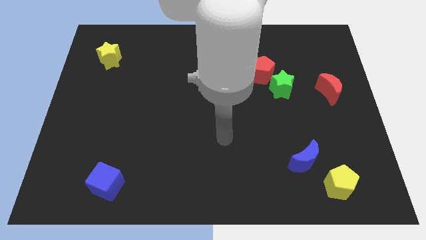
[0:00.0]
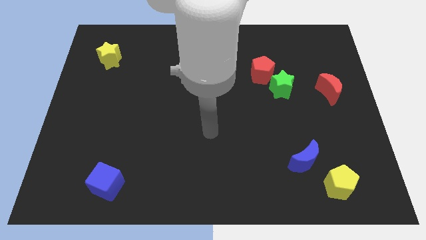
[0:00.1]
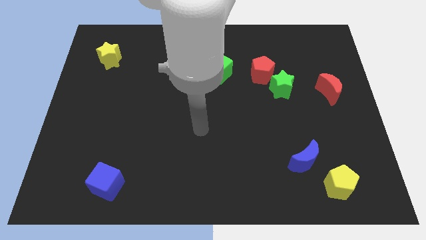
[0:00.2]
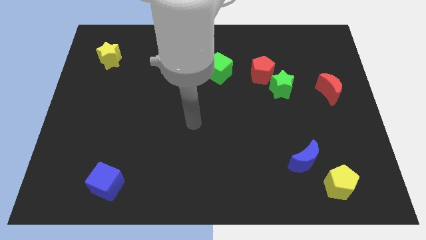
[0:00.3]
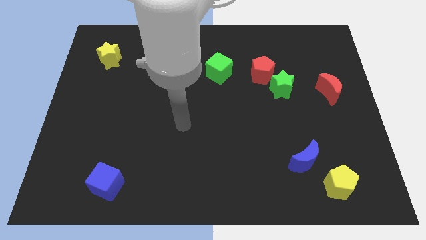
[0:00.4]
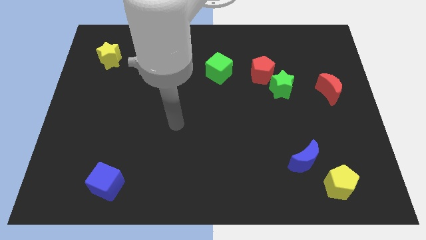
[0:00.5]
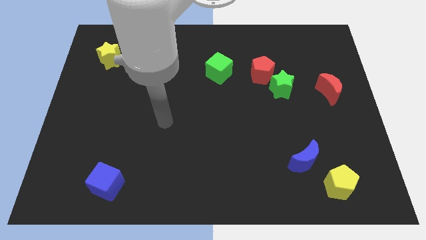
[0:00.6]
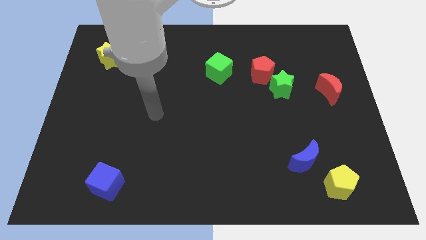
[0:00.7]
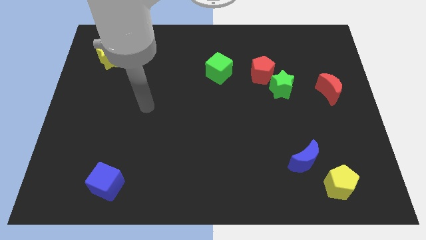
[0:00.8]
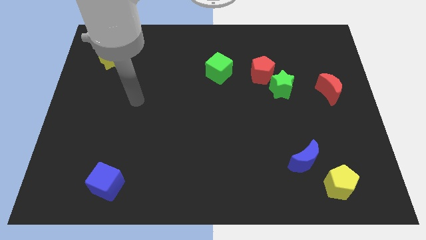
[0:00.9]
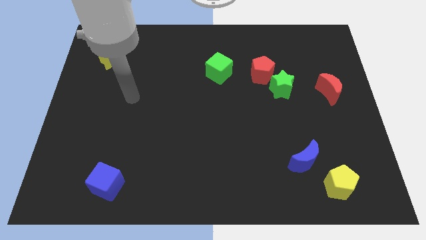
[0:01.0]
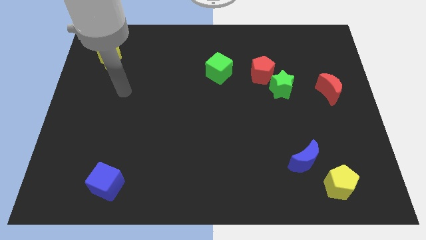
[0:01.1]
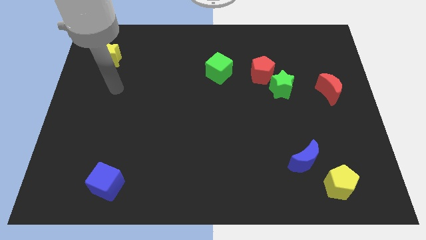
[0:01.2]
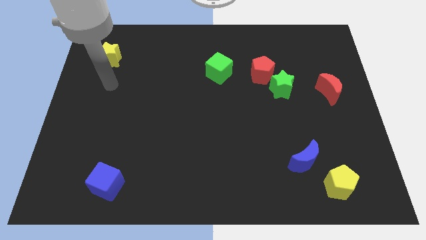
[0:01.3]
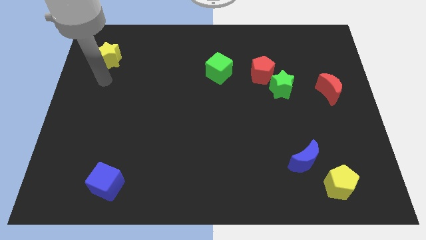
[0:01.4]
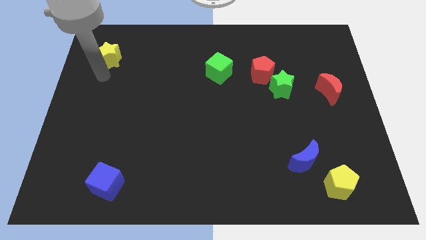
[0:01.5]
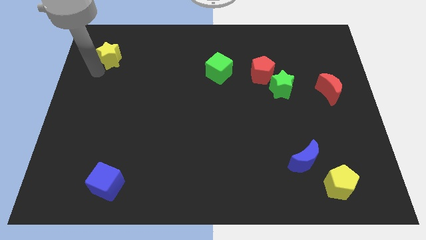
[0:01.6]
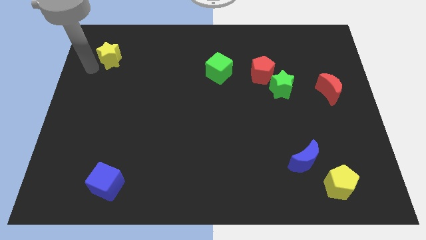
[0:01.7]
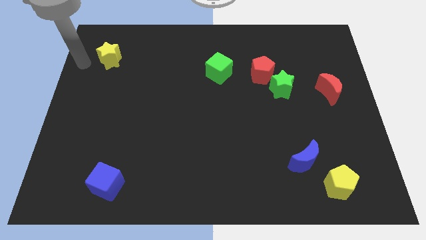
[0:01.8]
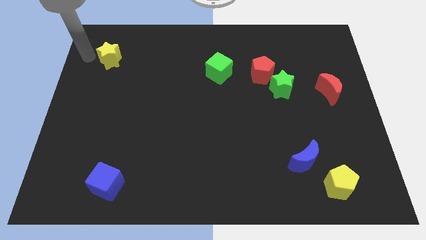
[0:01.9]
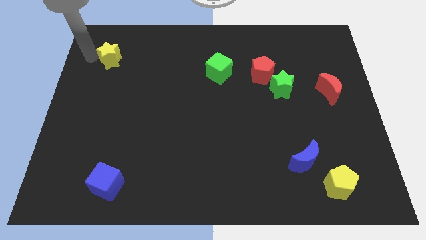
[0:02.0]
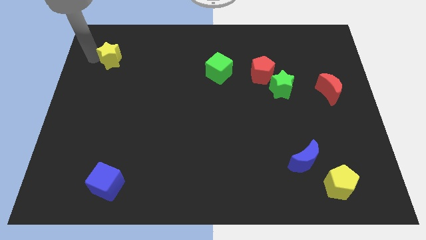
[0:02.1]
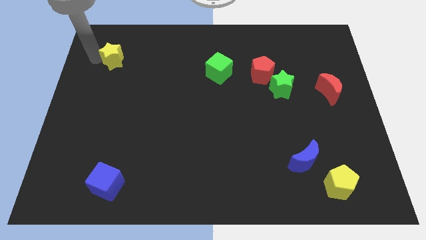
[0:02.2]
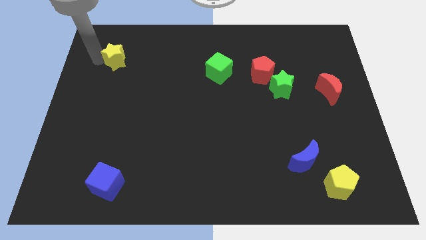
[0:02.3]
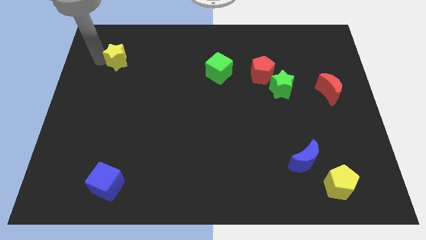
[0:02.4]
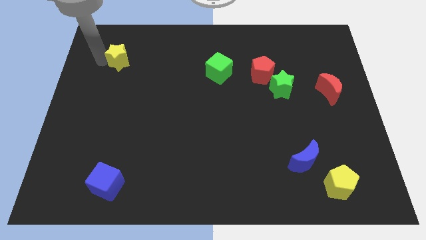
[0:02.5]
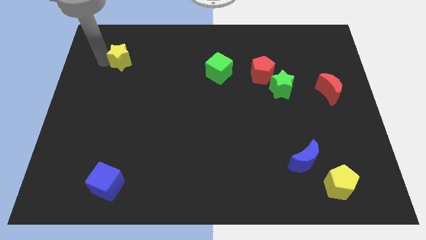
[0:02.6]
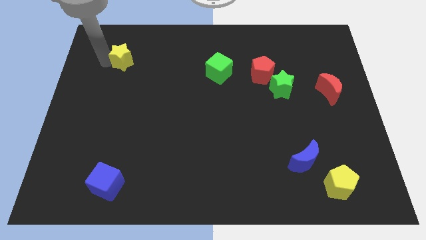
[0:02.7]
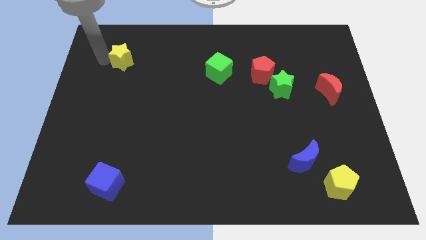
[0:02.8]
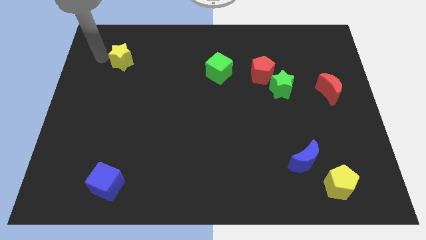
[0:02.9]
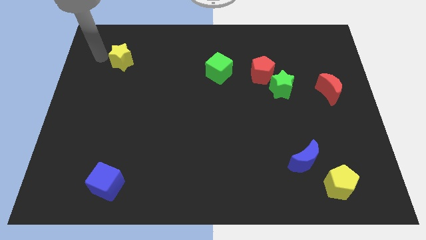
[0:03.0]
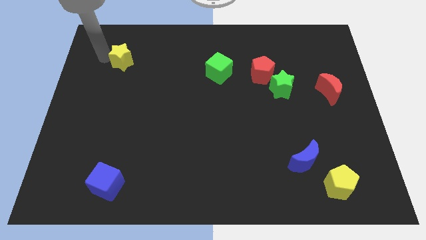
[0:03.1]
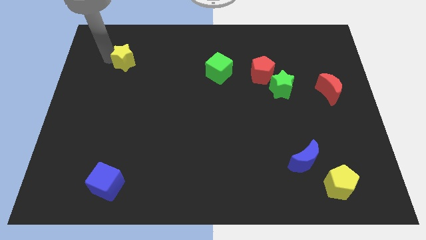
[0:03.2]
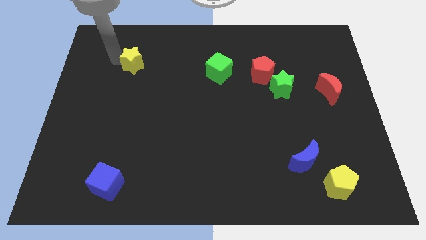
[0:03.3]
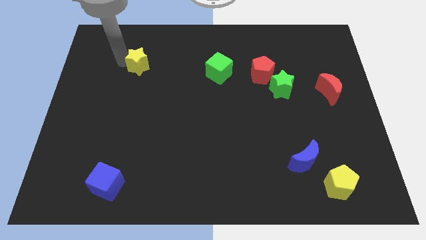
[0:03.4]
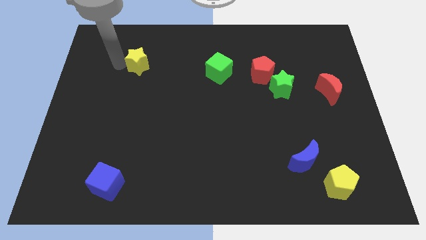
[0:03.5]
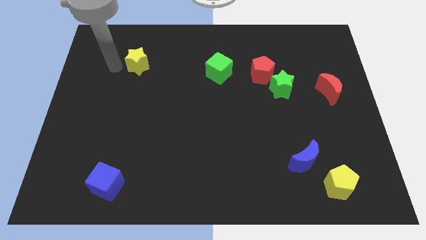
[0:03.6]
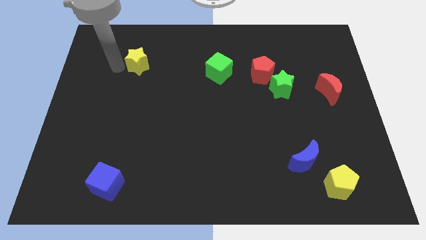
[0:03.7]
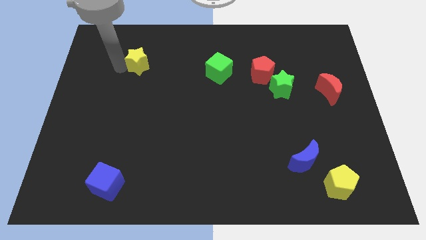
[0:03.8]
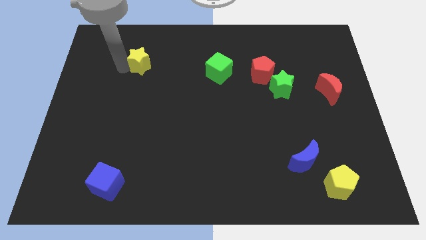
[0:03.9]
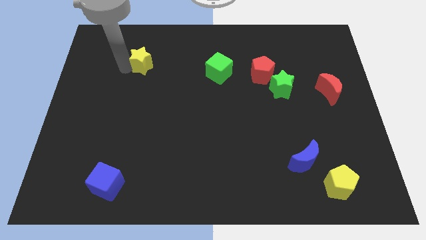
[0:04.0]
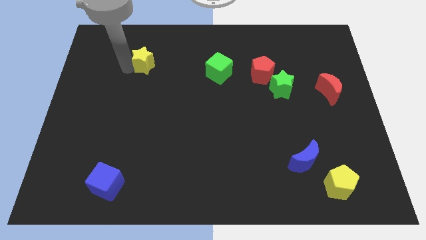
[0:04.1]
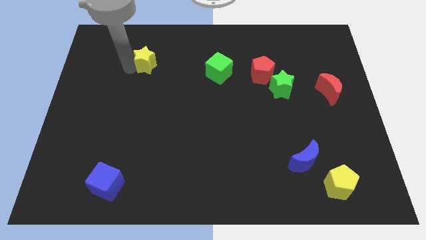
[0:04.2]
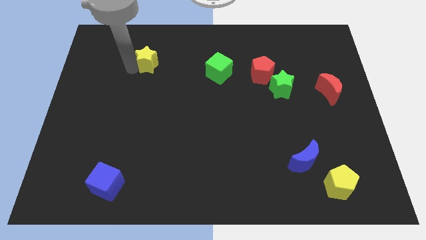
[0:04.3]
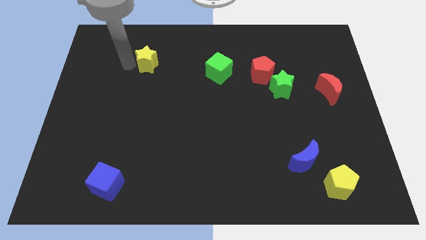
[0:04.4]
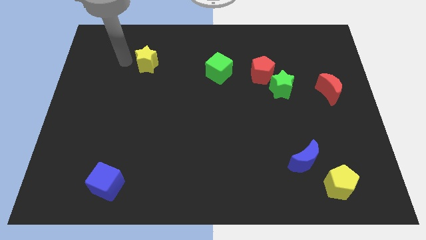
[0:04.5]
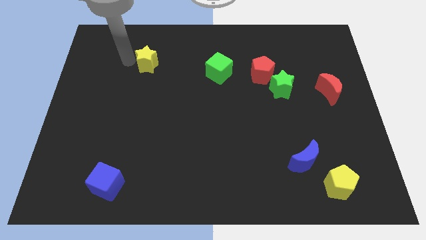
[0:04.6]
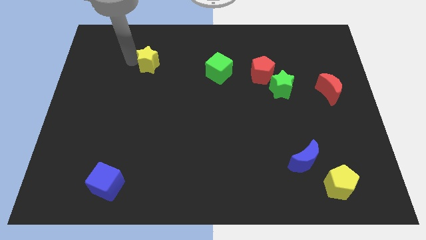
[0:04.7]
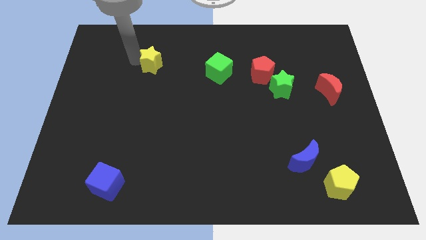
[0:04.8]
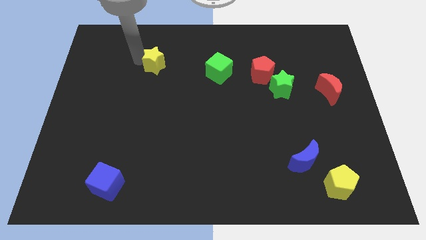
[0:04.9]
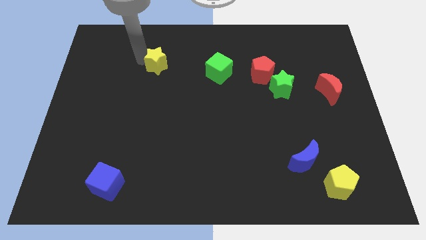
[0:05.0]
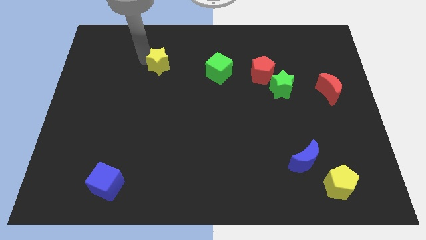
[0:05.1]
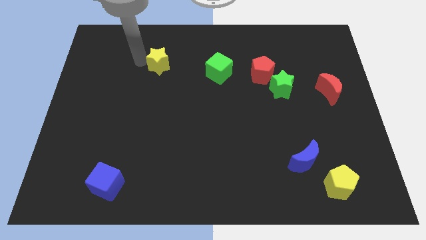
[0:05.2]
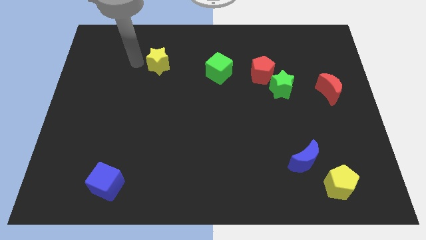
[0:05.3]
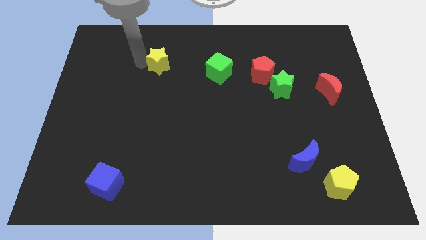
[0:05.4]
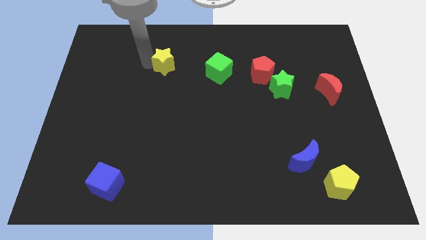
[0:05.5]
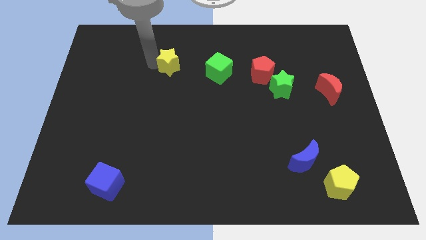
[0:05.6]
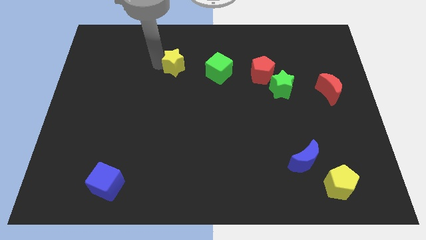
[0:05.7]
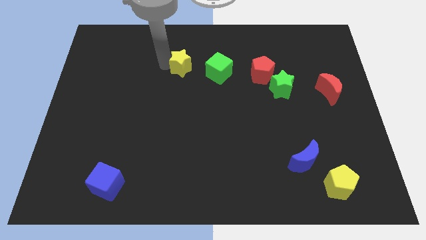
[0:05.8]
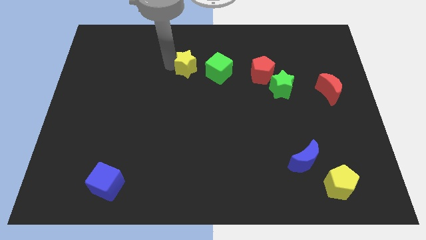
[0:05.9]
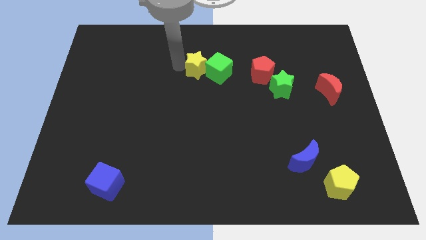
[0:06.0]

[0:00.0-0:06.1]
move the yellow star next to the green cube
